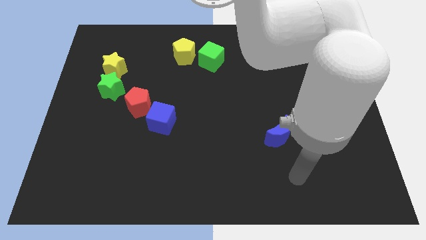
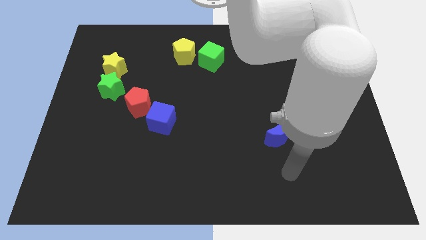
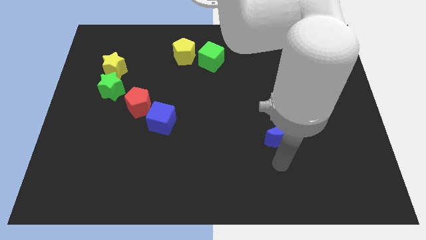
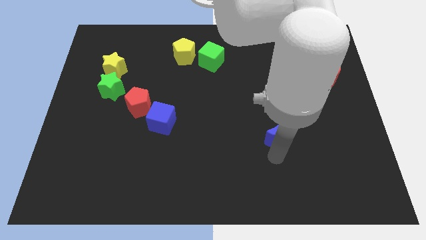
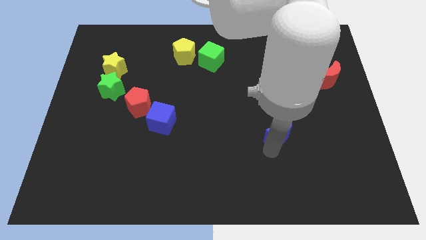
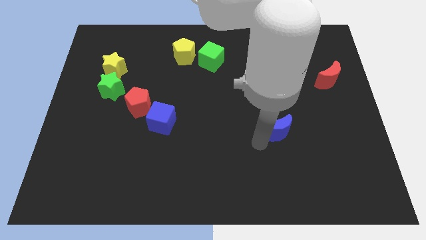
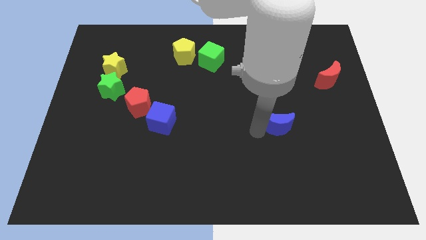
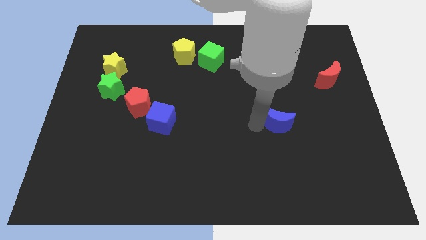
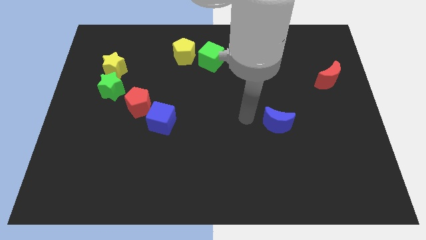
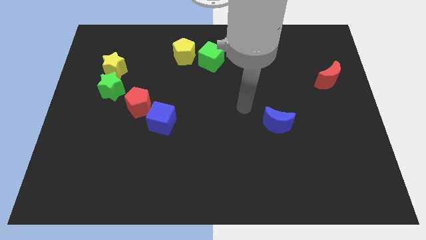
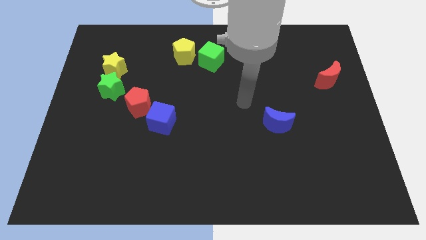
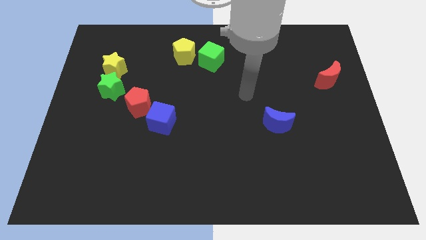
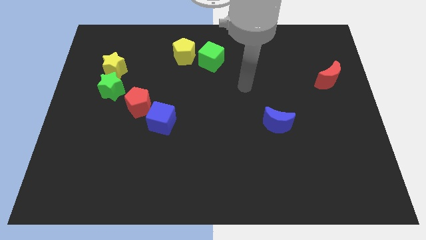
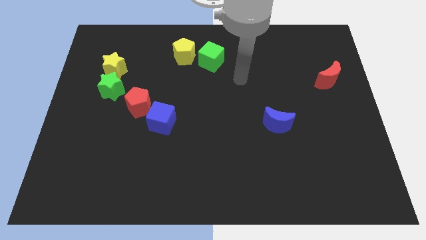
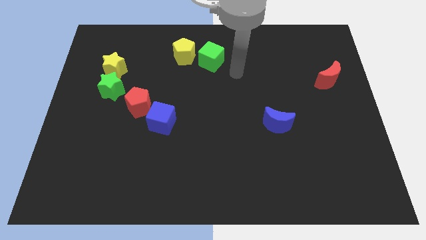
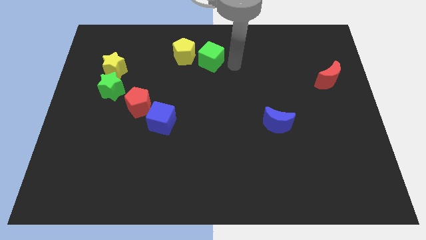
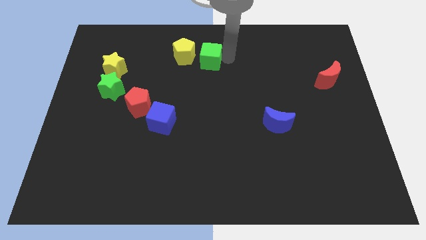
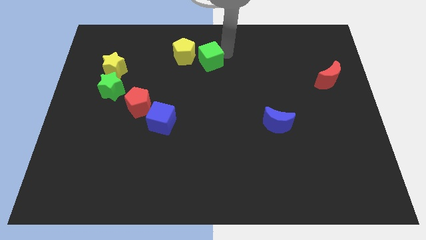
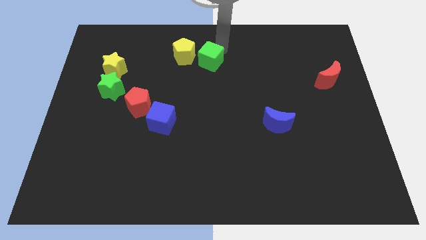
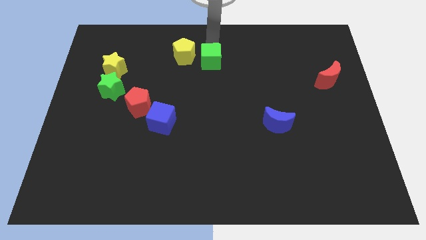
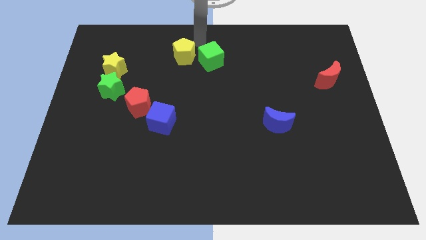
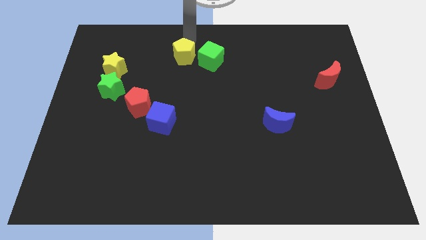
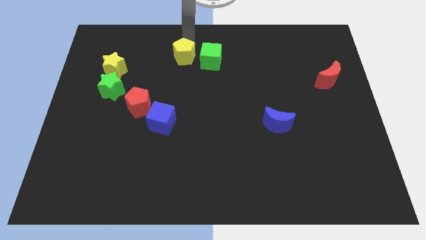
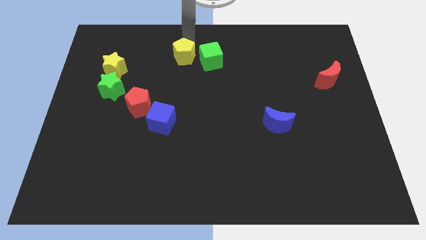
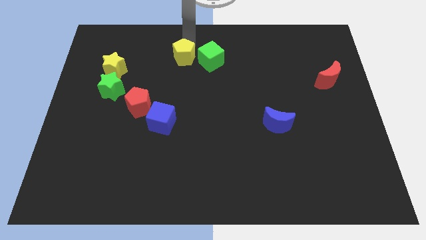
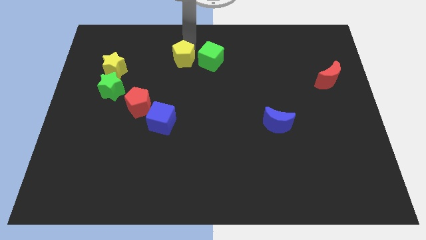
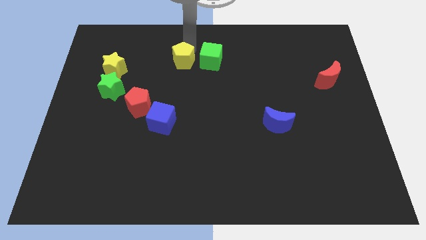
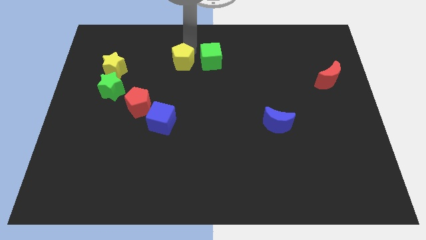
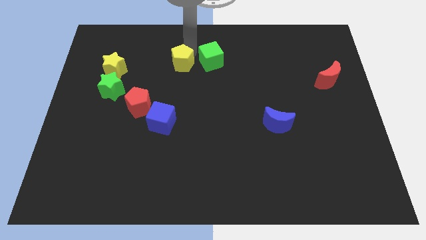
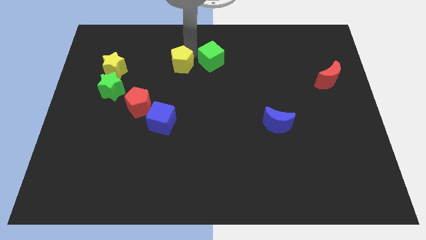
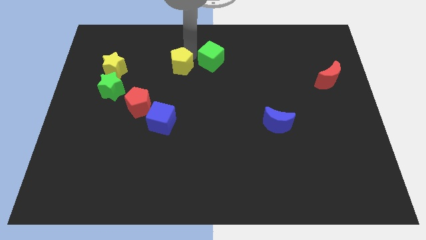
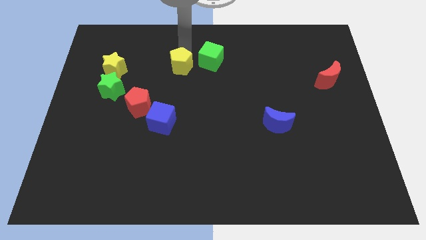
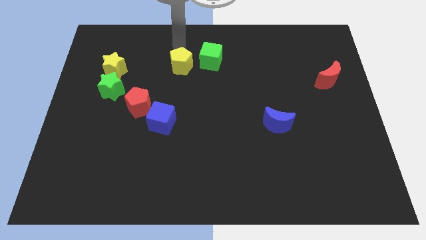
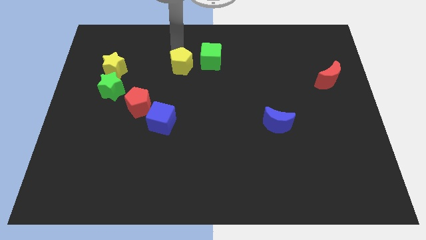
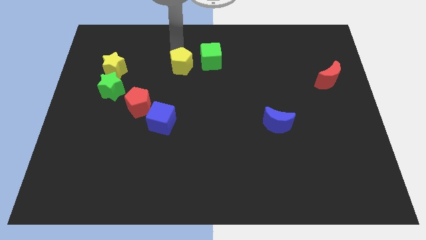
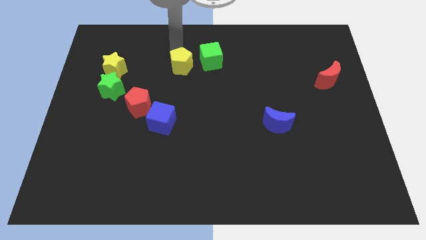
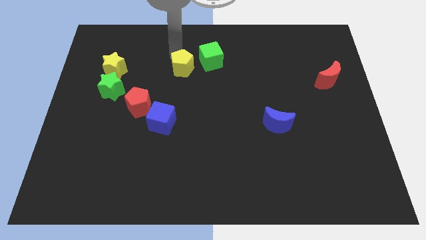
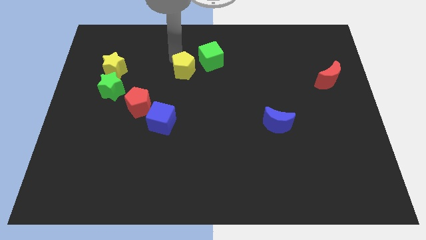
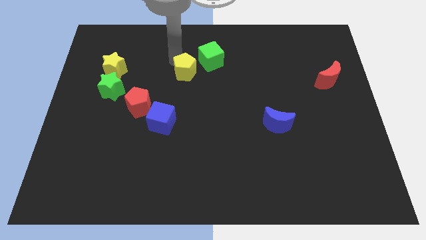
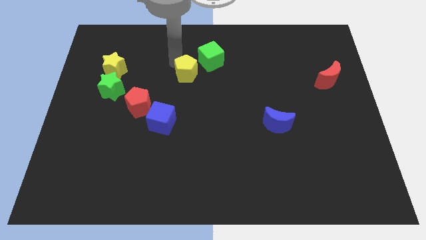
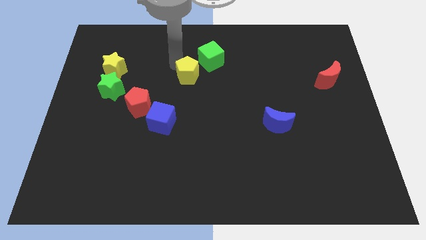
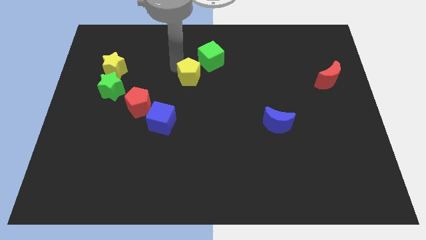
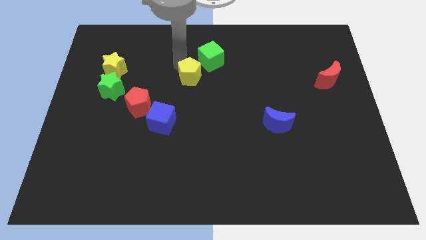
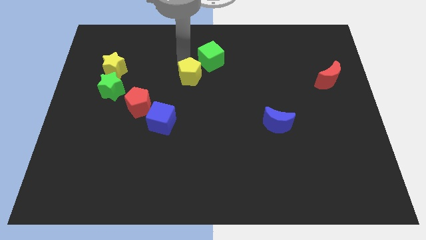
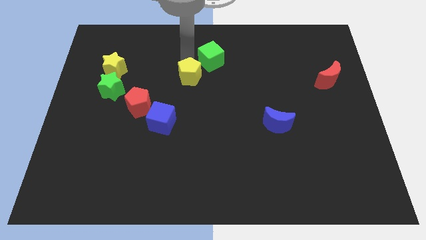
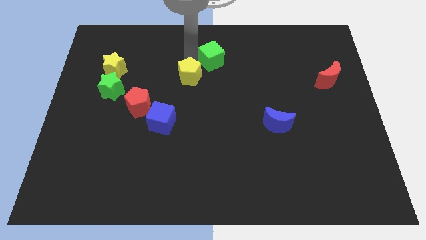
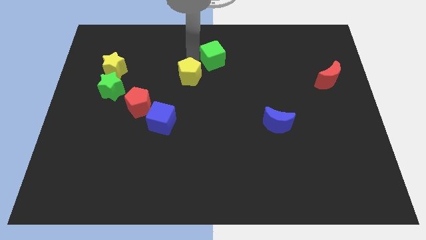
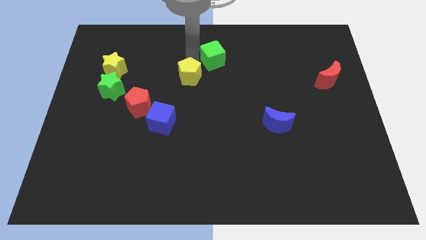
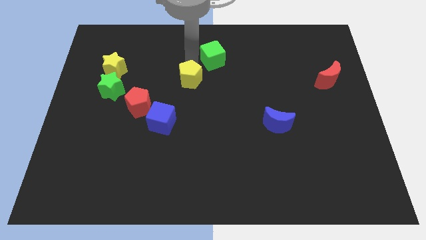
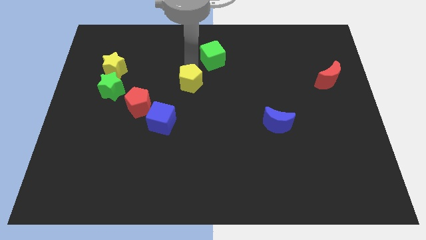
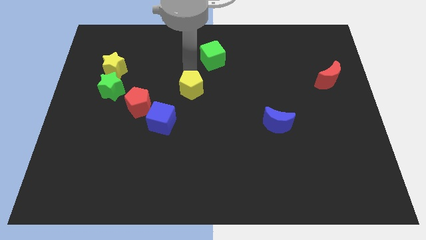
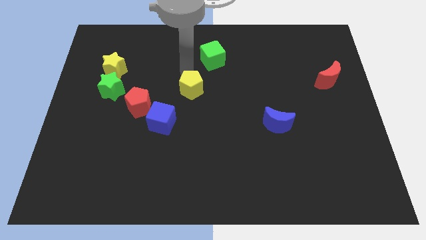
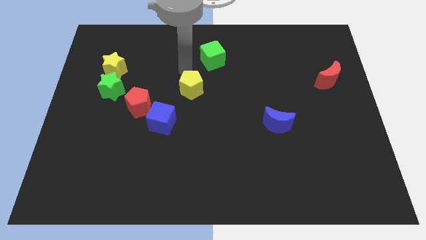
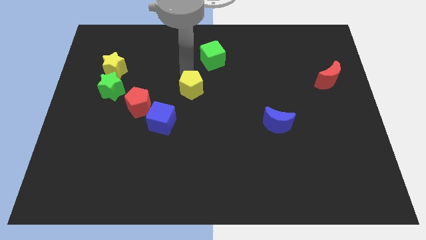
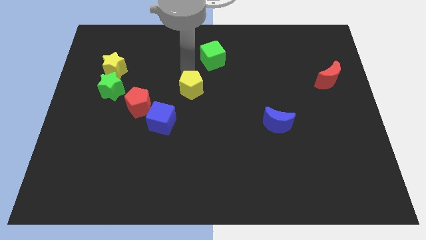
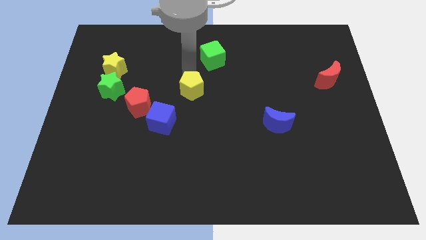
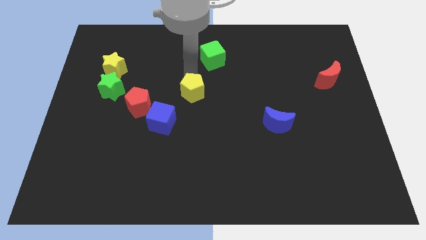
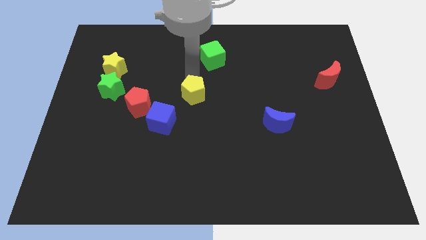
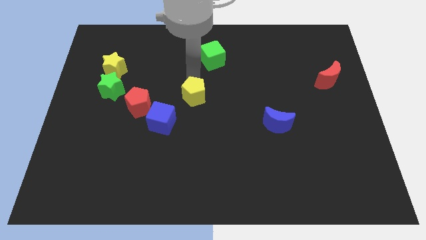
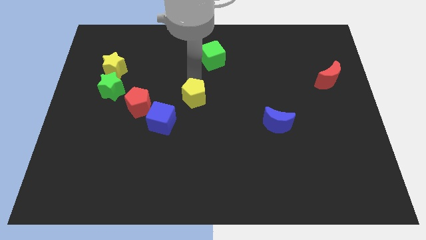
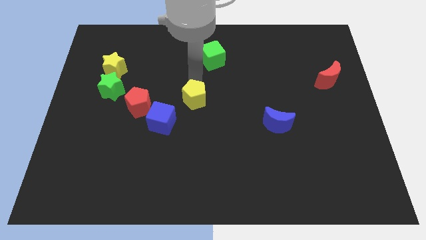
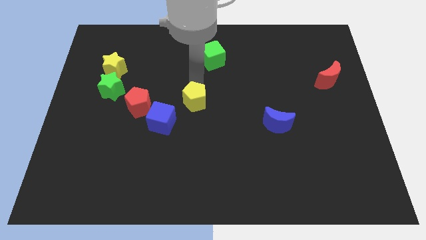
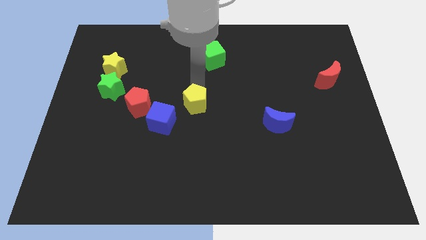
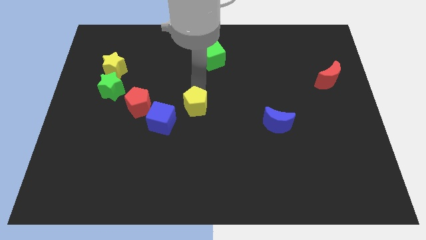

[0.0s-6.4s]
move the yellow pentagon to the right side of the blue cube
